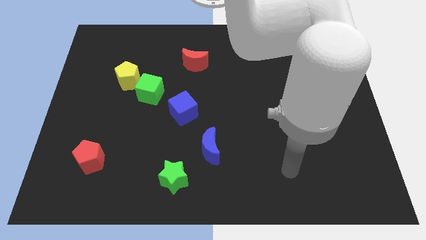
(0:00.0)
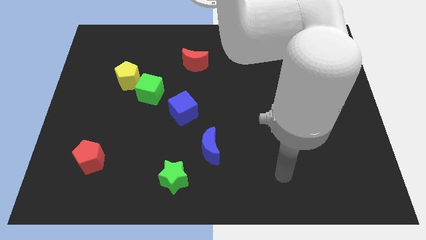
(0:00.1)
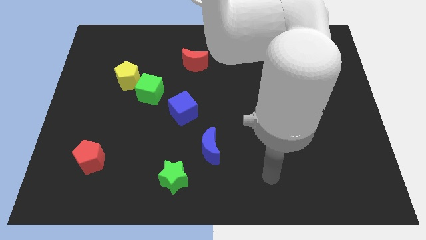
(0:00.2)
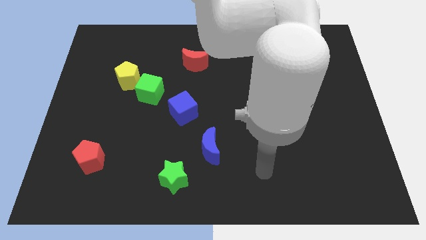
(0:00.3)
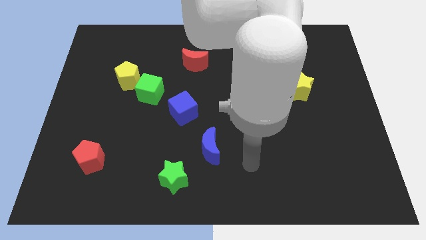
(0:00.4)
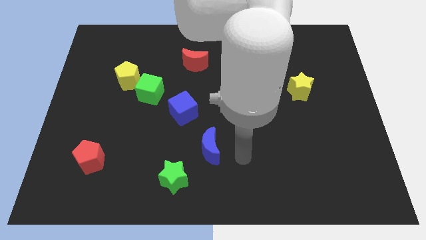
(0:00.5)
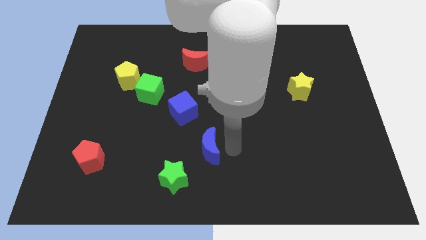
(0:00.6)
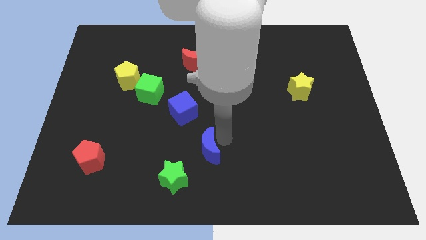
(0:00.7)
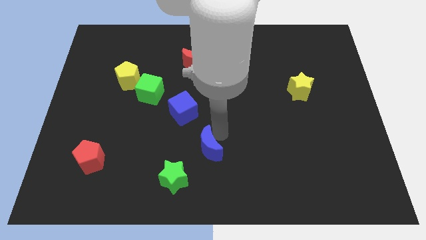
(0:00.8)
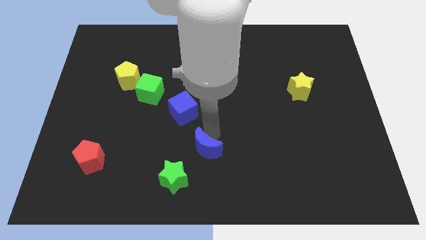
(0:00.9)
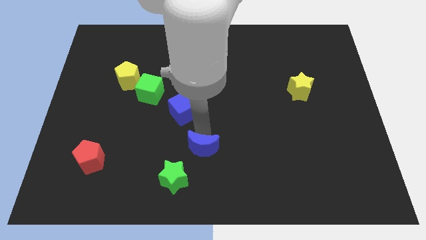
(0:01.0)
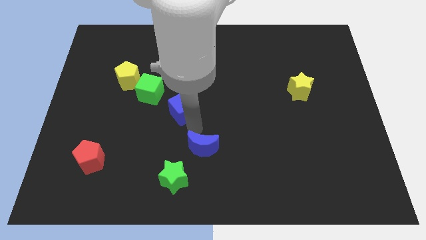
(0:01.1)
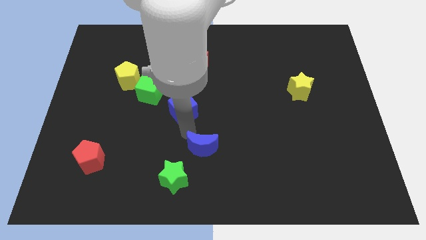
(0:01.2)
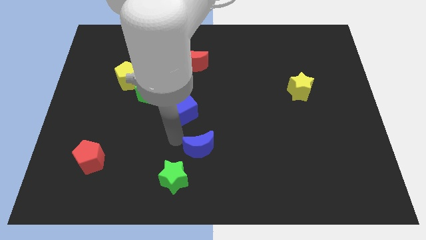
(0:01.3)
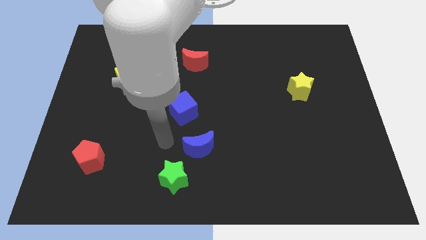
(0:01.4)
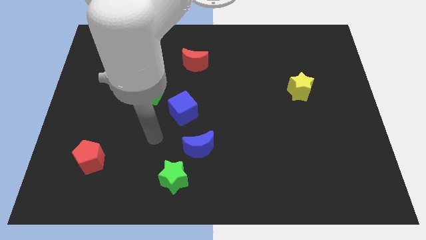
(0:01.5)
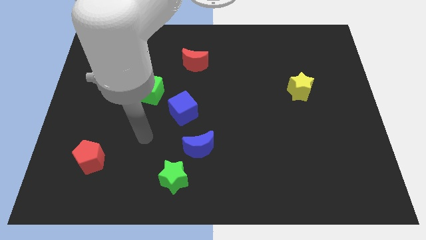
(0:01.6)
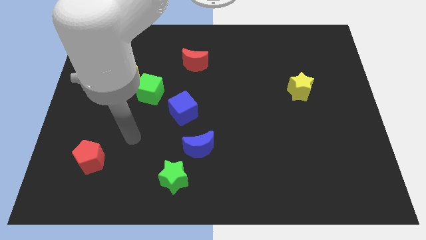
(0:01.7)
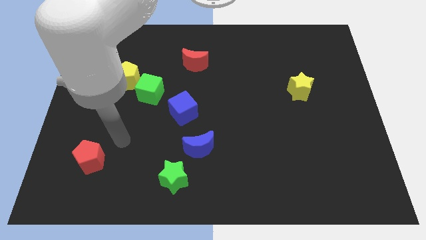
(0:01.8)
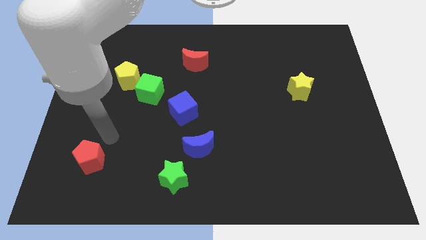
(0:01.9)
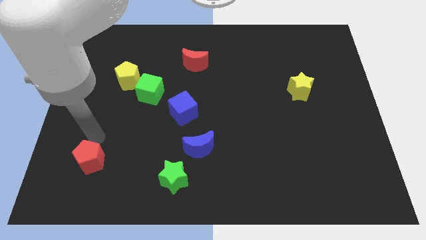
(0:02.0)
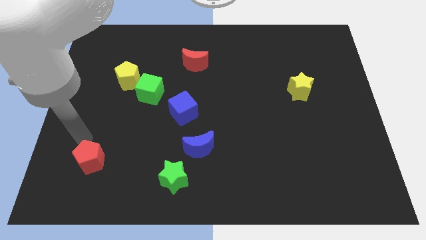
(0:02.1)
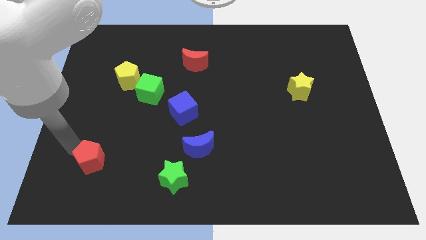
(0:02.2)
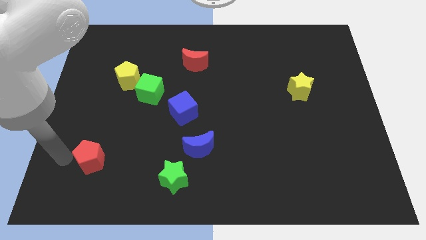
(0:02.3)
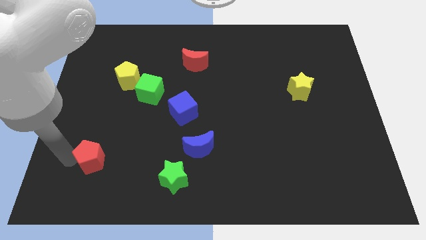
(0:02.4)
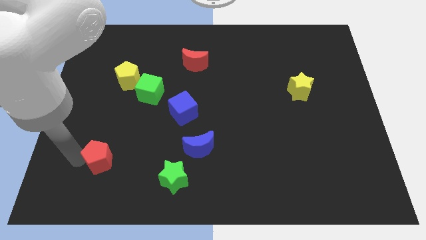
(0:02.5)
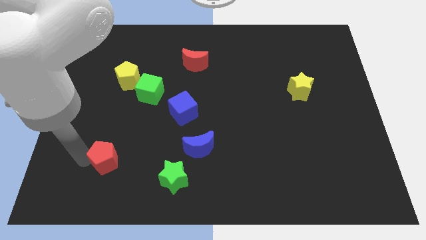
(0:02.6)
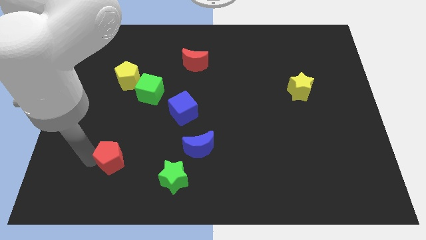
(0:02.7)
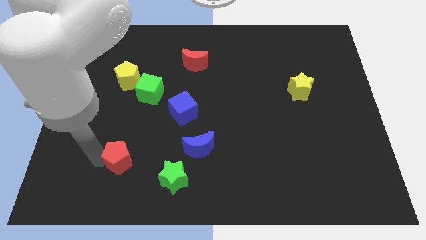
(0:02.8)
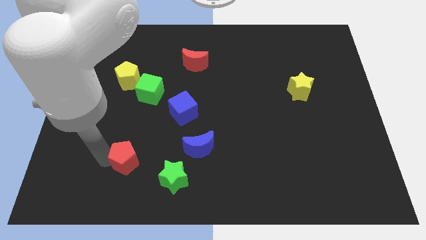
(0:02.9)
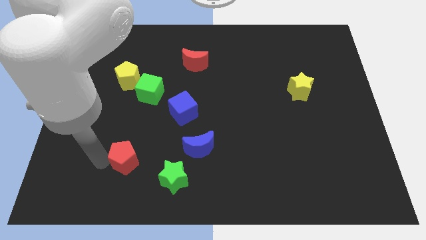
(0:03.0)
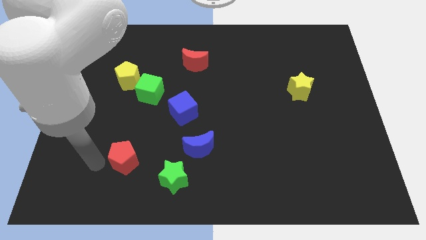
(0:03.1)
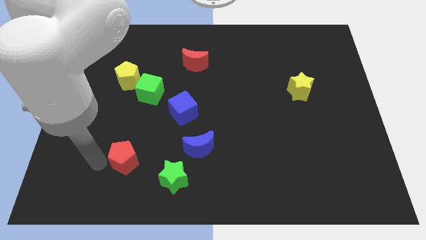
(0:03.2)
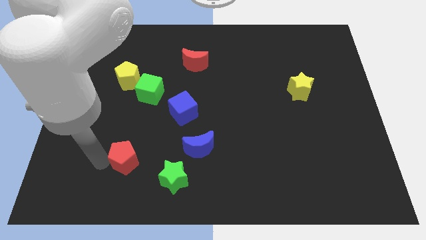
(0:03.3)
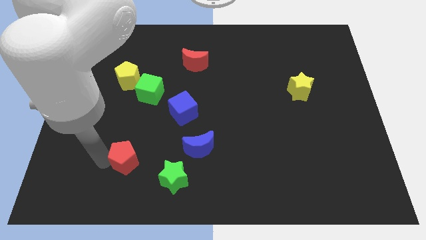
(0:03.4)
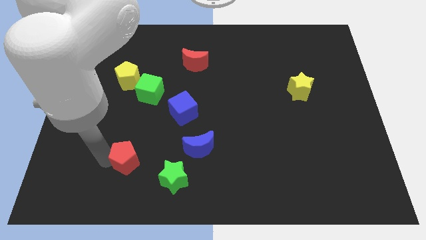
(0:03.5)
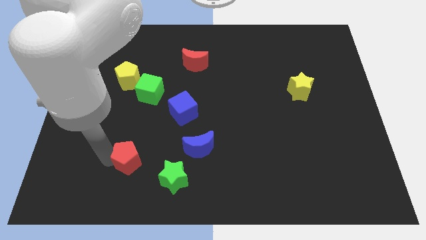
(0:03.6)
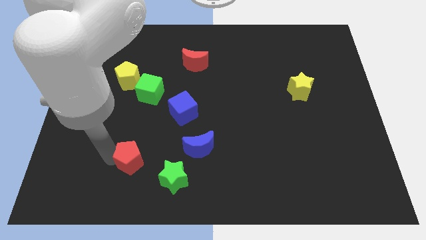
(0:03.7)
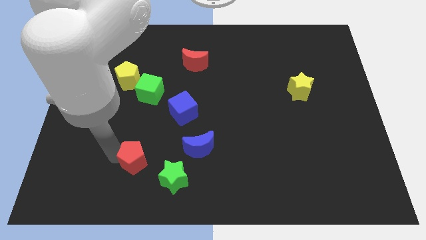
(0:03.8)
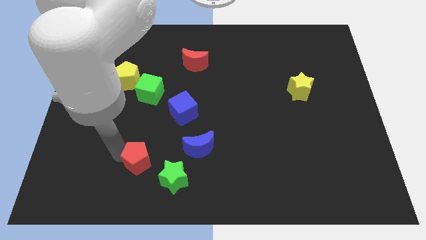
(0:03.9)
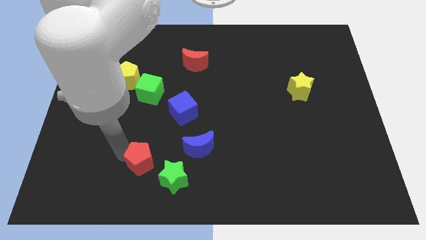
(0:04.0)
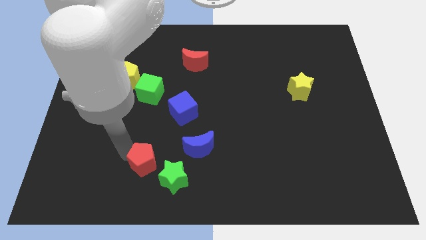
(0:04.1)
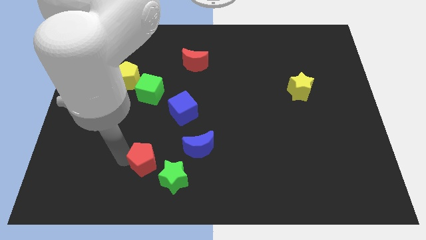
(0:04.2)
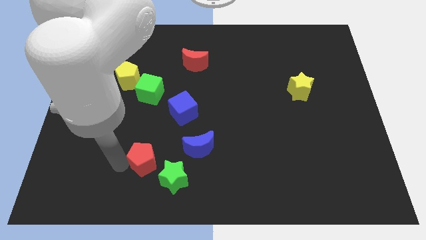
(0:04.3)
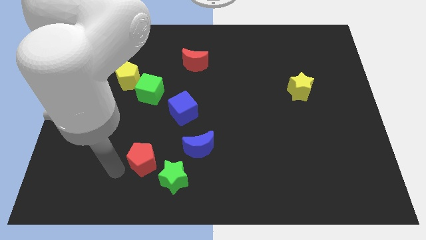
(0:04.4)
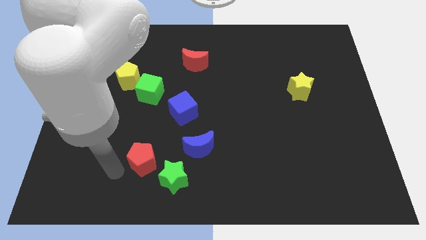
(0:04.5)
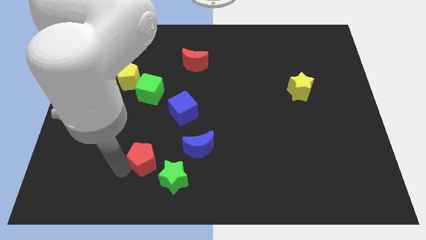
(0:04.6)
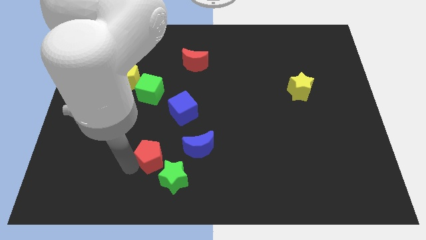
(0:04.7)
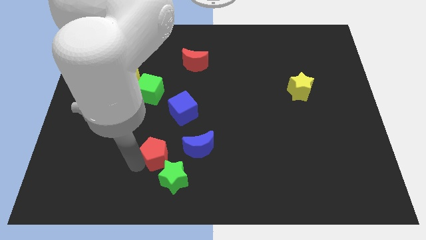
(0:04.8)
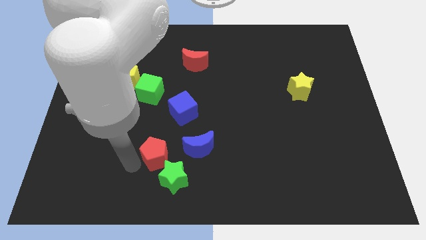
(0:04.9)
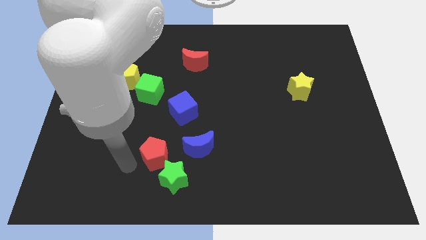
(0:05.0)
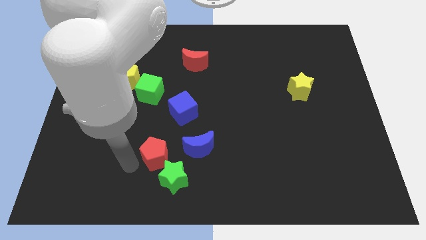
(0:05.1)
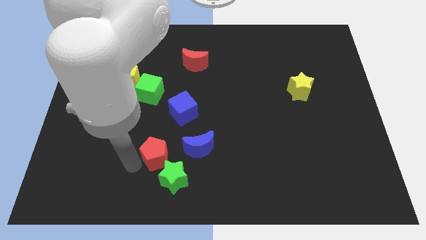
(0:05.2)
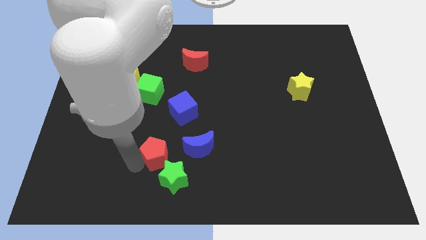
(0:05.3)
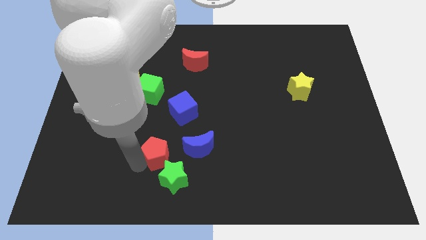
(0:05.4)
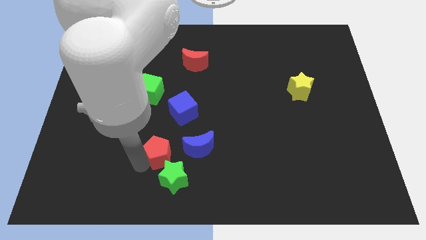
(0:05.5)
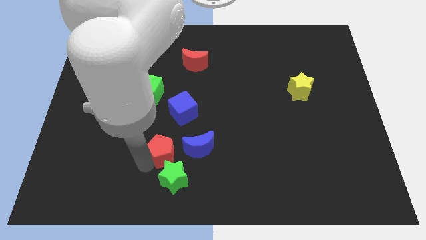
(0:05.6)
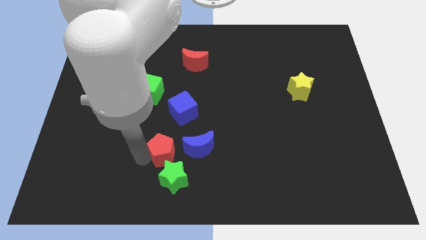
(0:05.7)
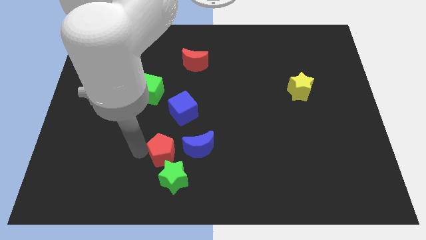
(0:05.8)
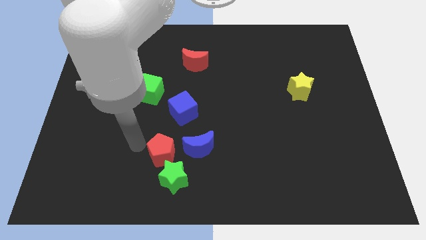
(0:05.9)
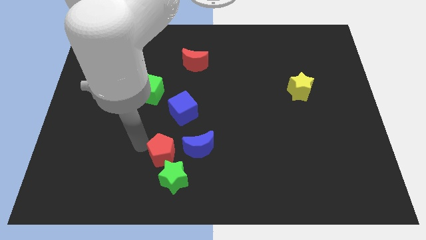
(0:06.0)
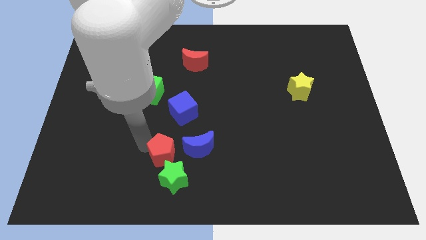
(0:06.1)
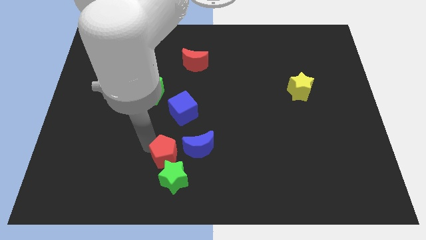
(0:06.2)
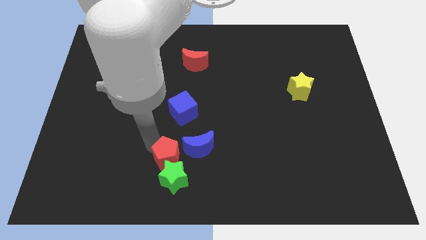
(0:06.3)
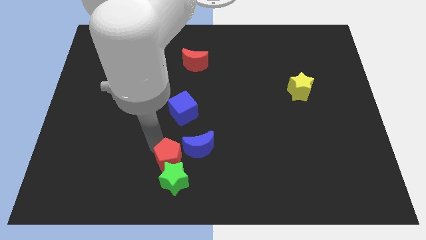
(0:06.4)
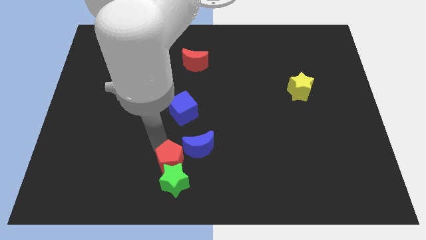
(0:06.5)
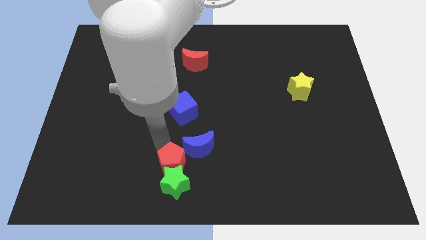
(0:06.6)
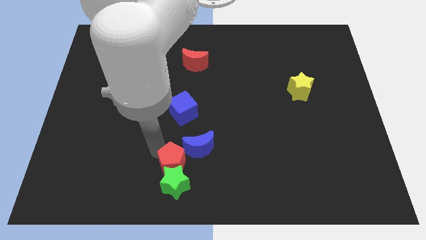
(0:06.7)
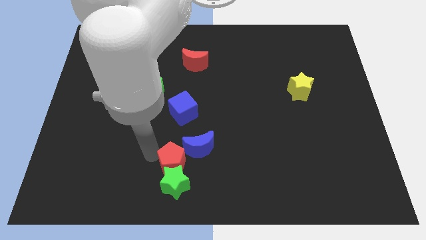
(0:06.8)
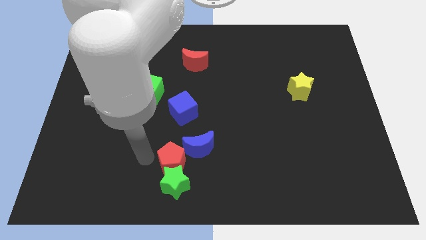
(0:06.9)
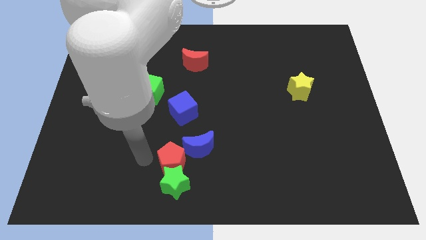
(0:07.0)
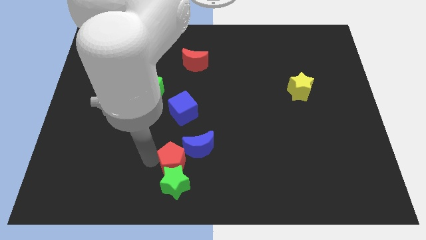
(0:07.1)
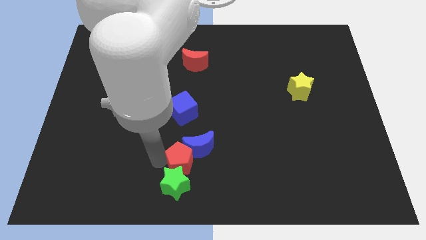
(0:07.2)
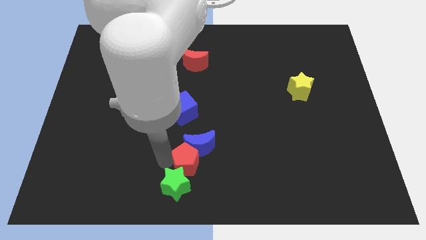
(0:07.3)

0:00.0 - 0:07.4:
push the red pentagon right

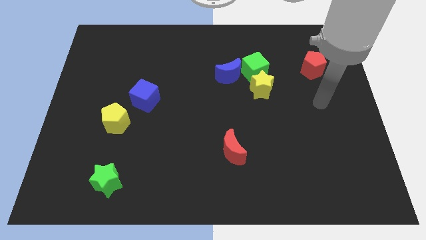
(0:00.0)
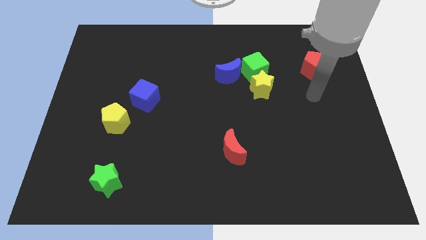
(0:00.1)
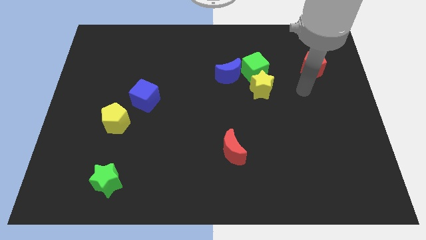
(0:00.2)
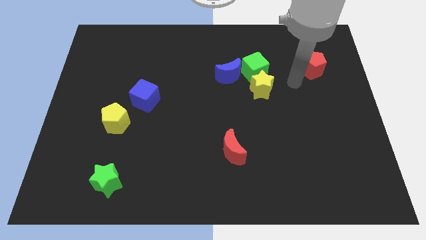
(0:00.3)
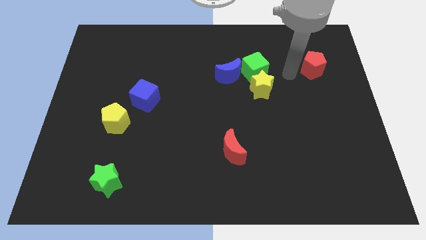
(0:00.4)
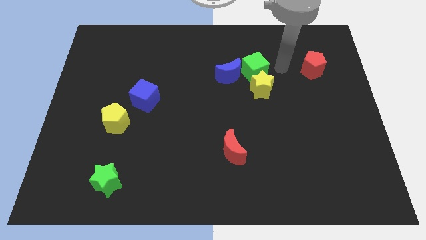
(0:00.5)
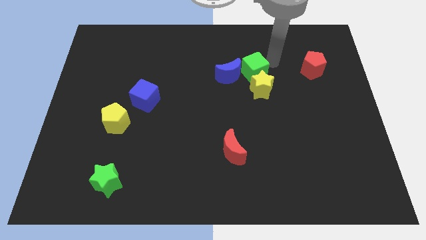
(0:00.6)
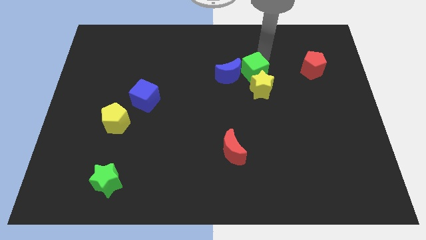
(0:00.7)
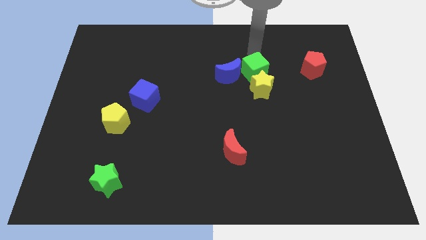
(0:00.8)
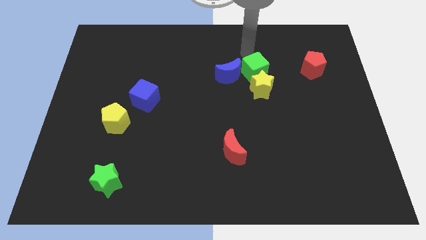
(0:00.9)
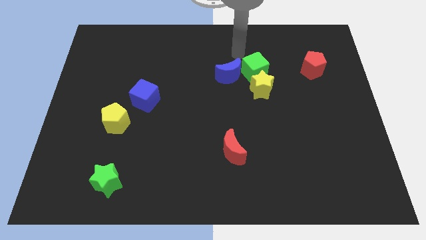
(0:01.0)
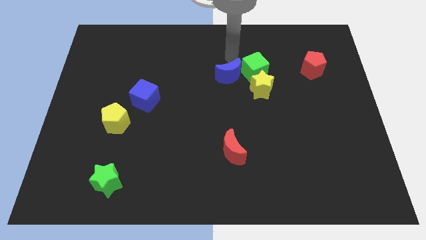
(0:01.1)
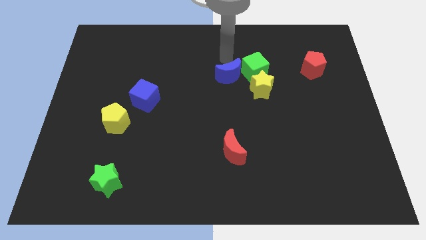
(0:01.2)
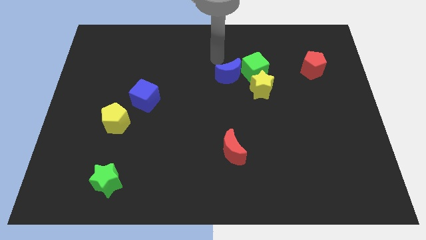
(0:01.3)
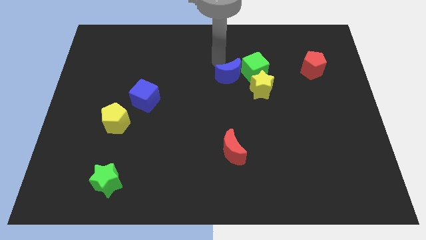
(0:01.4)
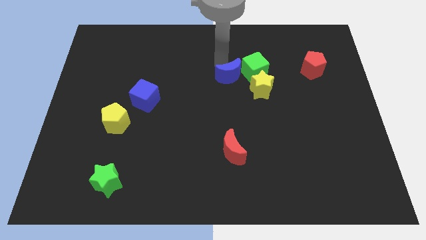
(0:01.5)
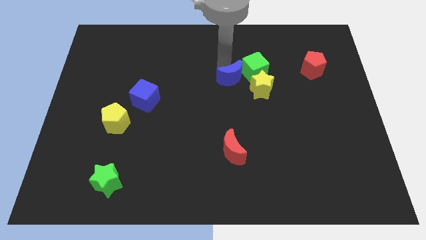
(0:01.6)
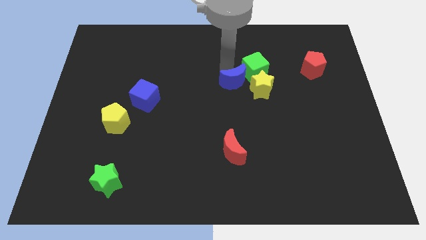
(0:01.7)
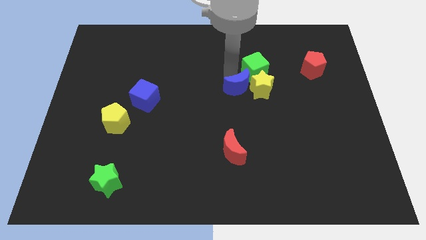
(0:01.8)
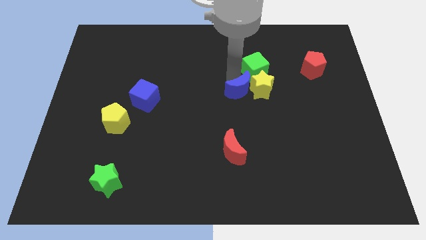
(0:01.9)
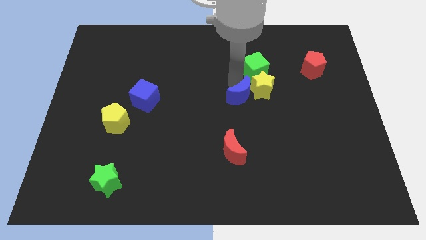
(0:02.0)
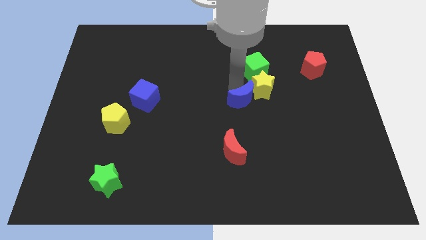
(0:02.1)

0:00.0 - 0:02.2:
move the blue moon a little bit down and right diagonally
